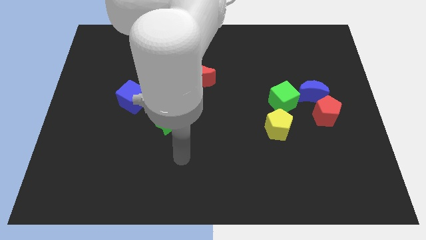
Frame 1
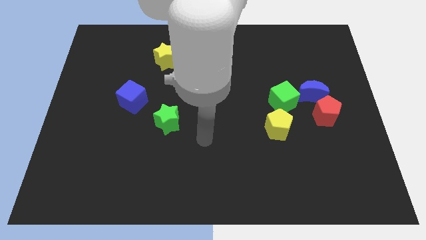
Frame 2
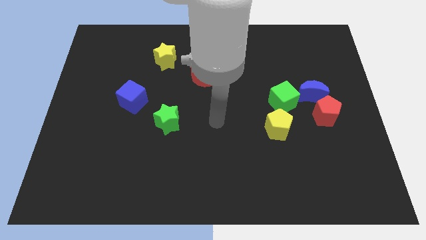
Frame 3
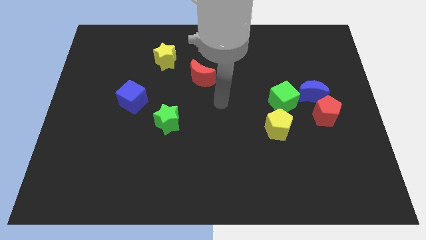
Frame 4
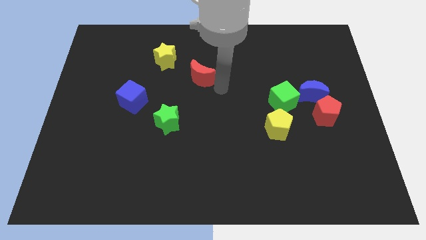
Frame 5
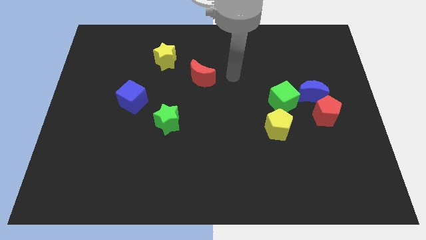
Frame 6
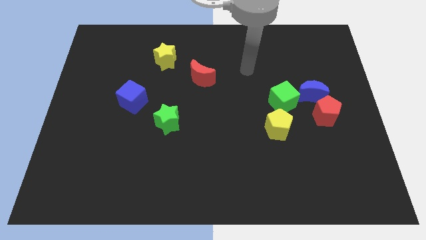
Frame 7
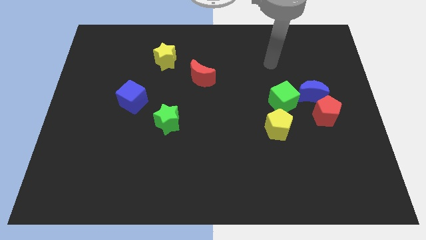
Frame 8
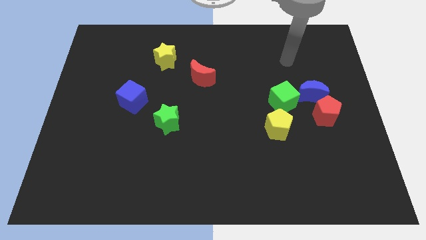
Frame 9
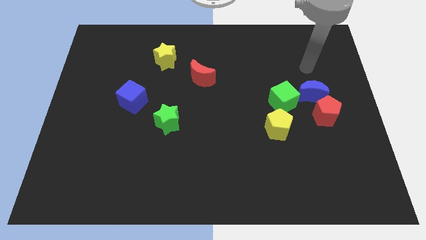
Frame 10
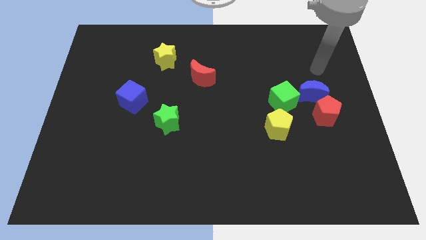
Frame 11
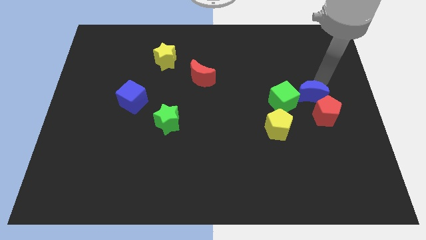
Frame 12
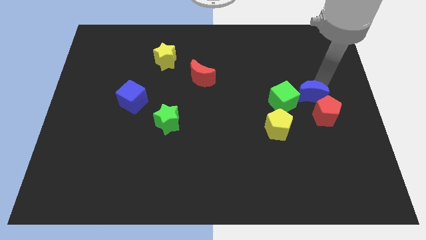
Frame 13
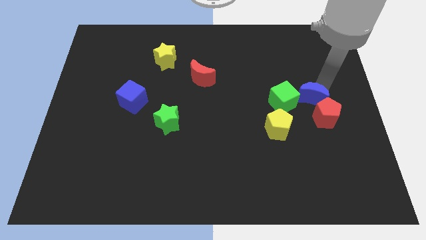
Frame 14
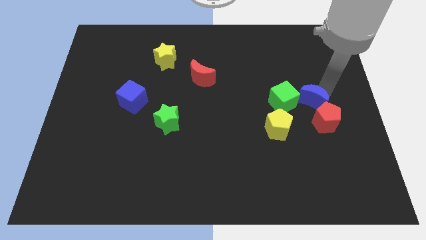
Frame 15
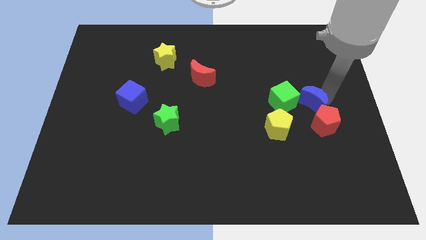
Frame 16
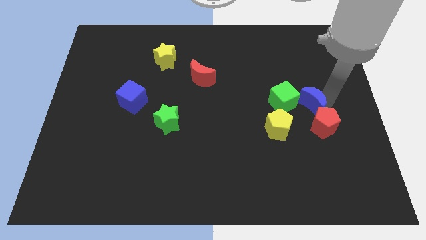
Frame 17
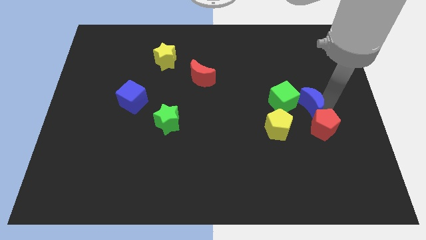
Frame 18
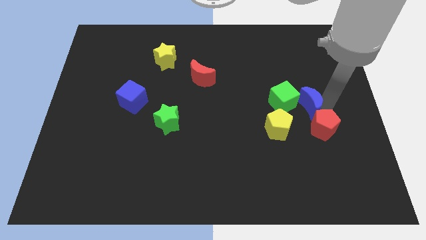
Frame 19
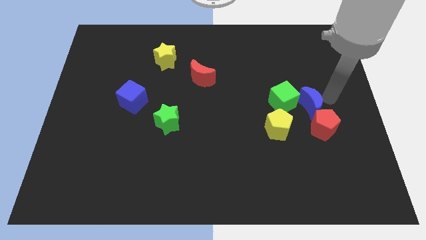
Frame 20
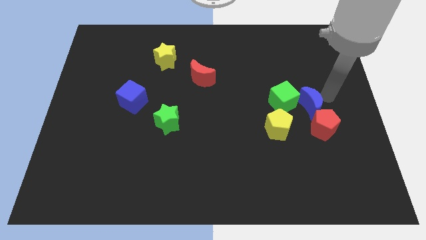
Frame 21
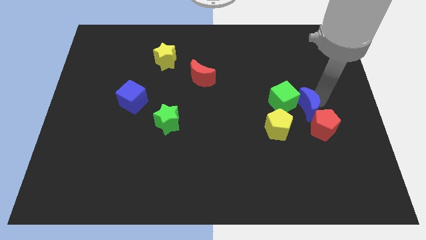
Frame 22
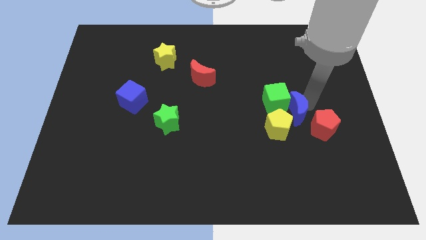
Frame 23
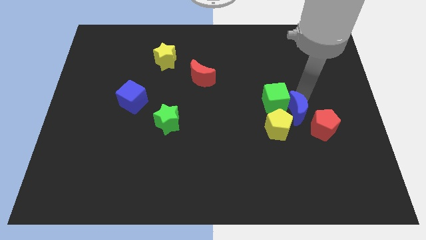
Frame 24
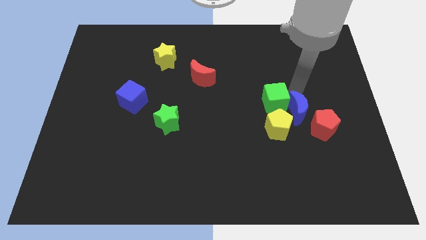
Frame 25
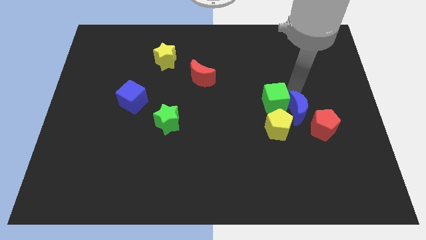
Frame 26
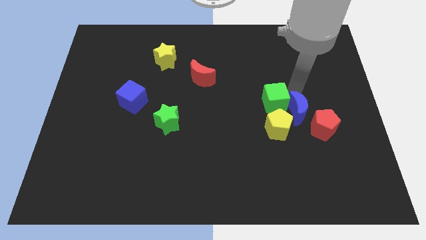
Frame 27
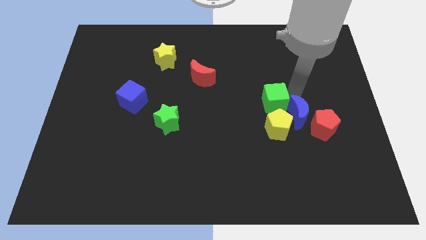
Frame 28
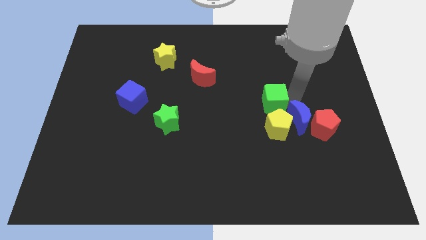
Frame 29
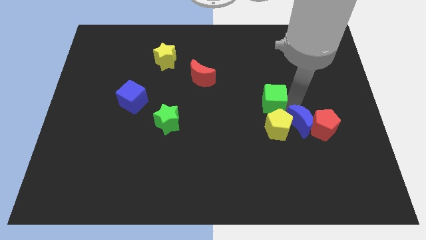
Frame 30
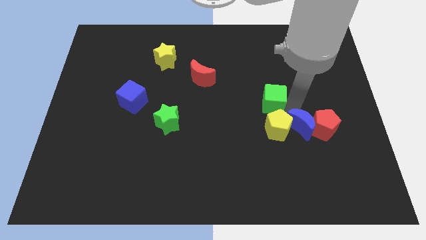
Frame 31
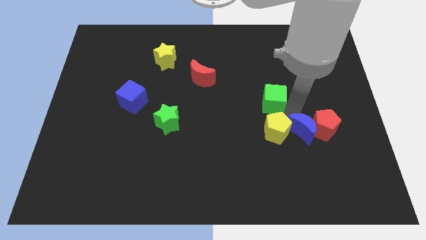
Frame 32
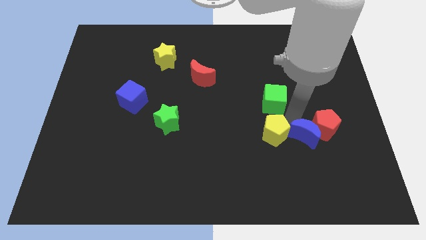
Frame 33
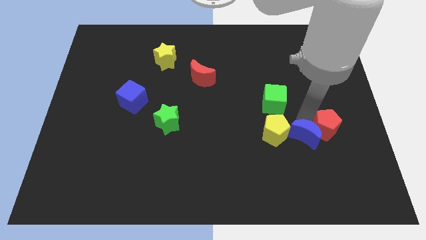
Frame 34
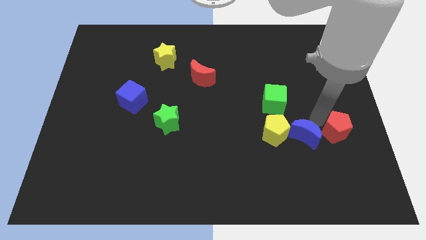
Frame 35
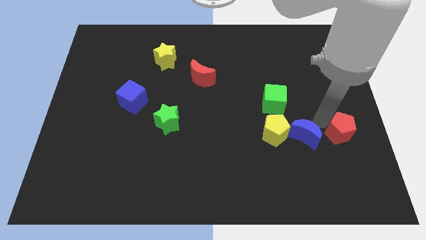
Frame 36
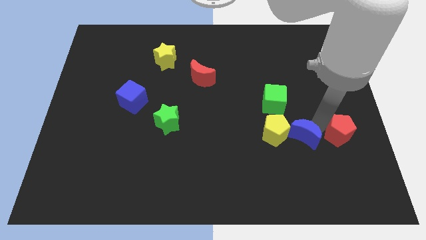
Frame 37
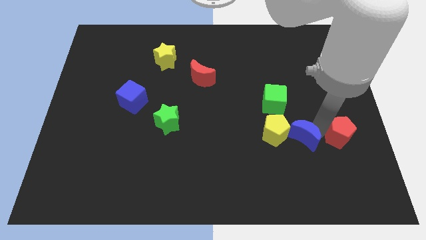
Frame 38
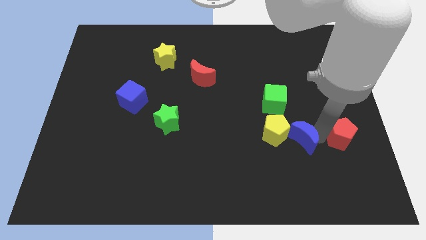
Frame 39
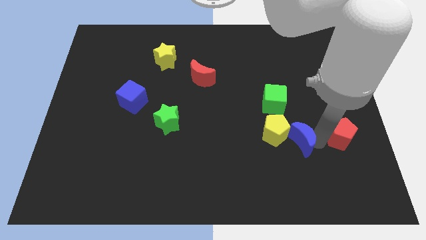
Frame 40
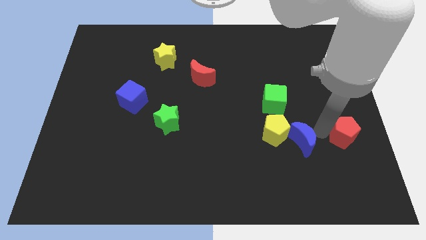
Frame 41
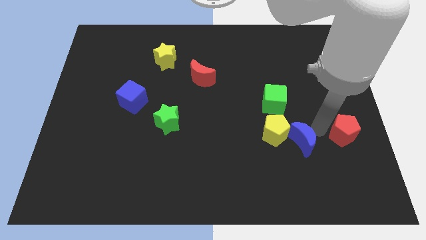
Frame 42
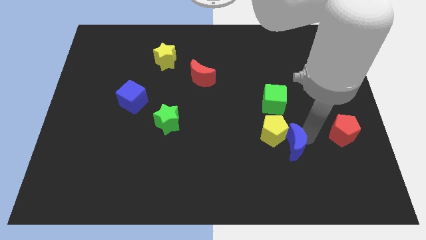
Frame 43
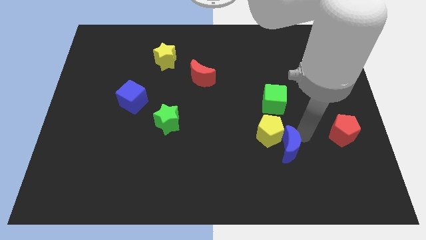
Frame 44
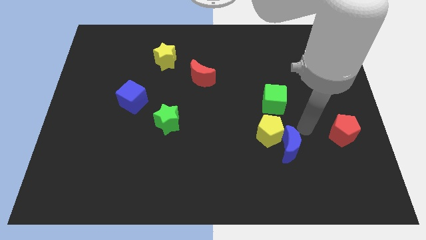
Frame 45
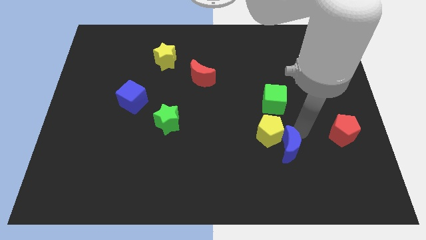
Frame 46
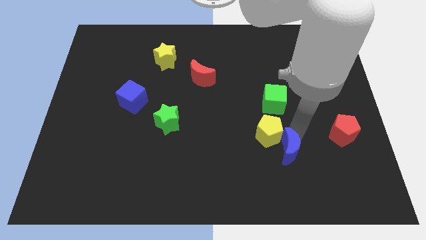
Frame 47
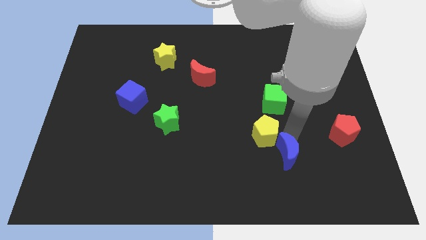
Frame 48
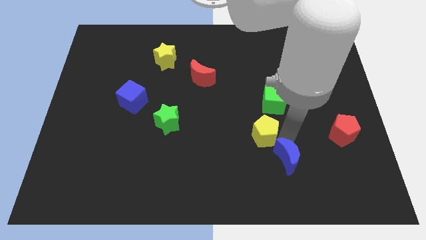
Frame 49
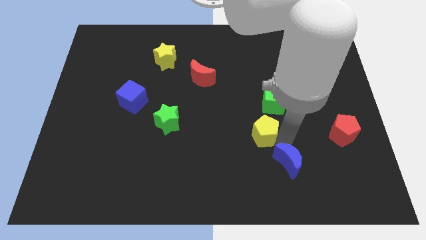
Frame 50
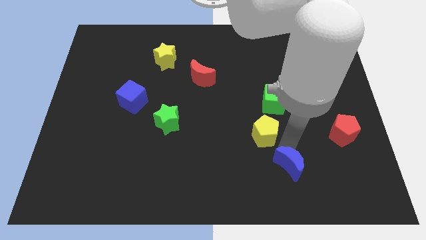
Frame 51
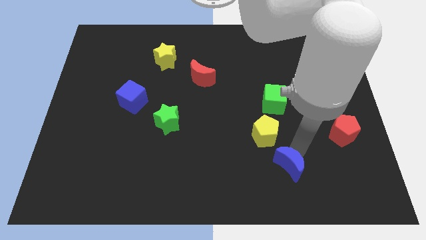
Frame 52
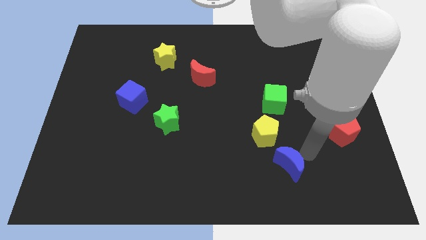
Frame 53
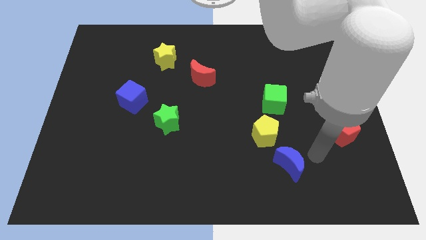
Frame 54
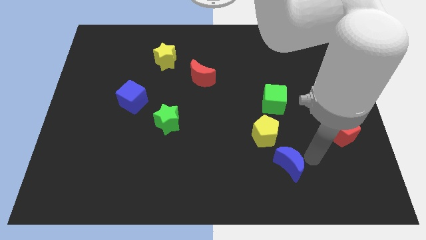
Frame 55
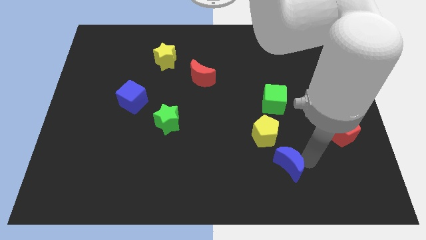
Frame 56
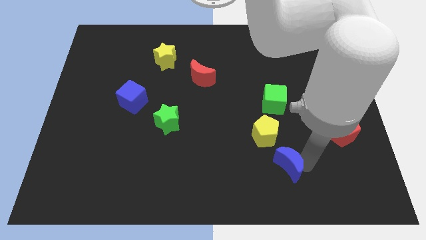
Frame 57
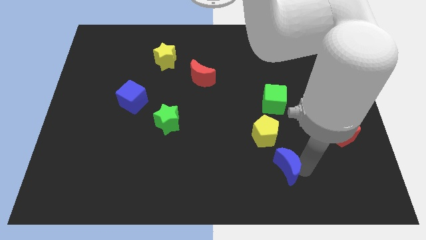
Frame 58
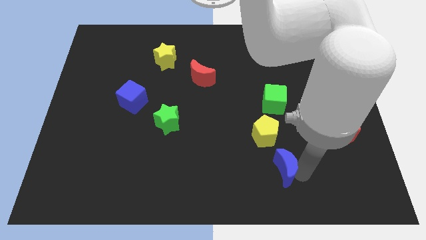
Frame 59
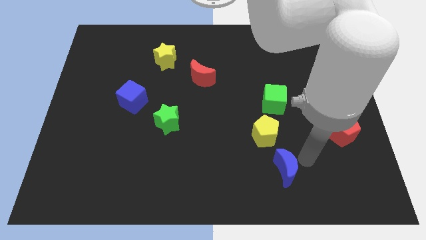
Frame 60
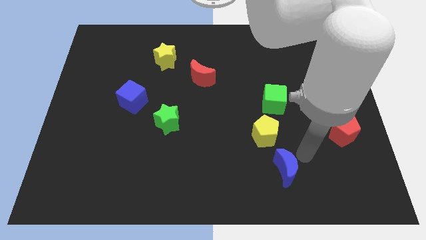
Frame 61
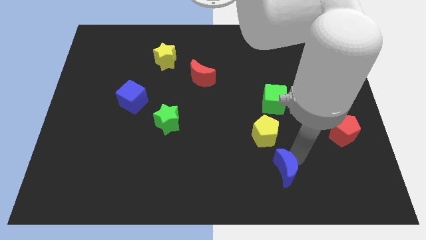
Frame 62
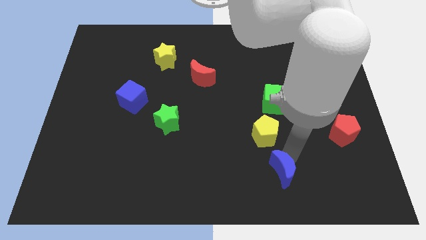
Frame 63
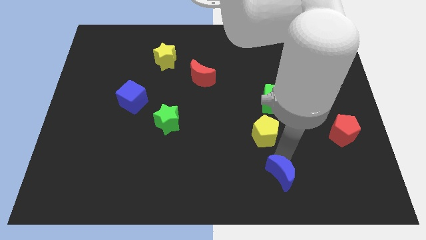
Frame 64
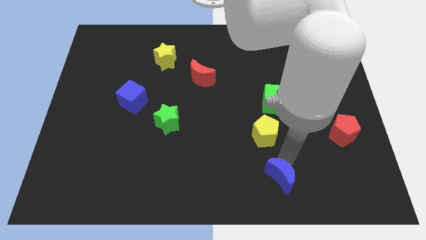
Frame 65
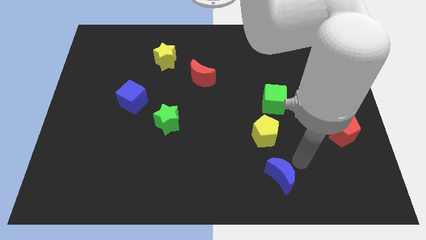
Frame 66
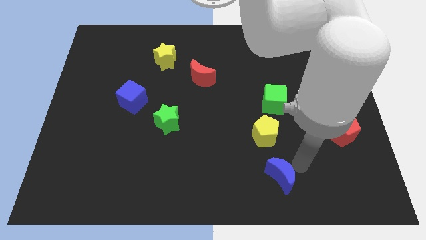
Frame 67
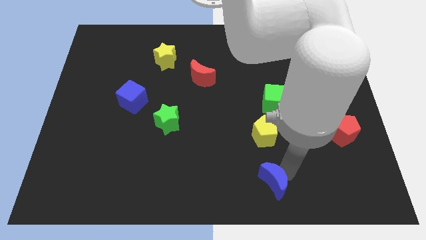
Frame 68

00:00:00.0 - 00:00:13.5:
put the blue moon to the bottom side
